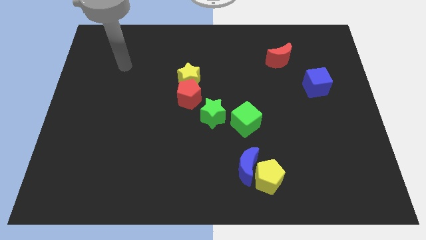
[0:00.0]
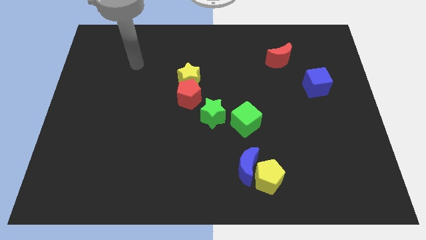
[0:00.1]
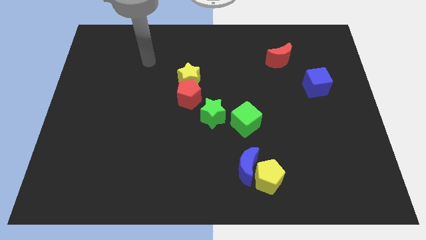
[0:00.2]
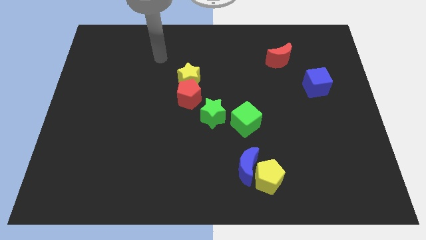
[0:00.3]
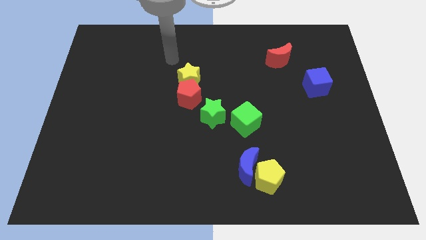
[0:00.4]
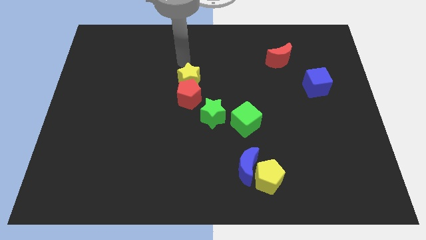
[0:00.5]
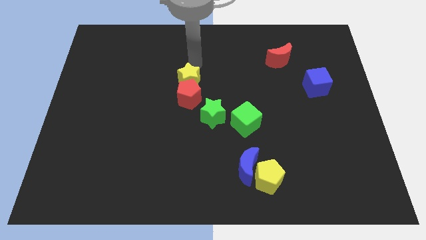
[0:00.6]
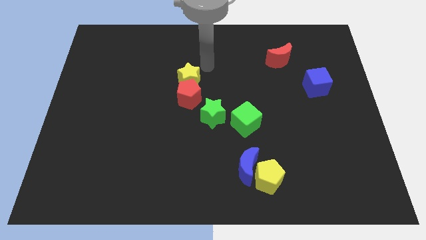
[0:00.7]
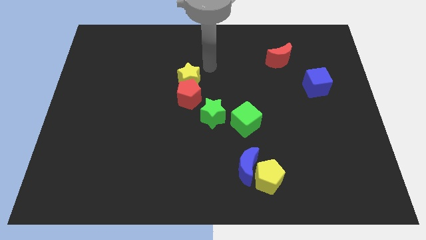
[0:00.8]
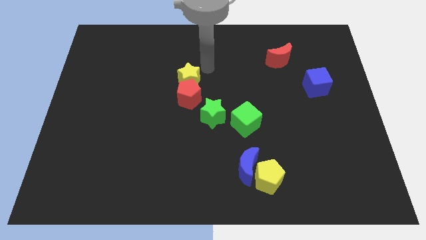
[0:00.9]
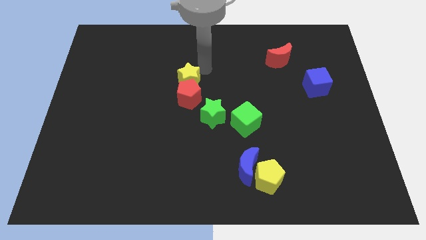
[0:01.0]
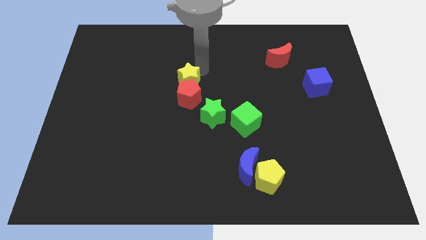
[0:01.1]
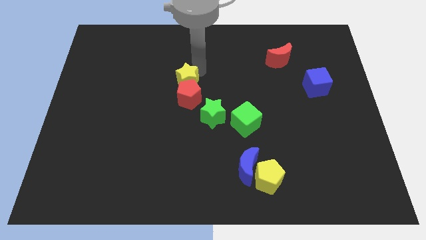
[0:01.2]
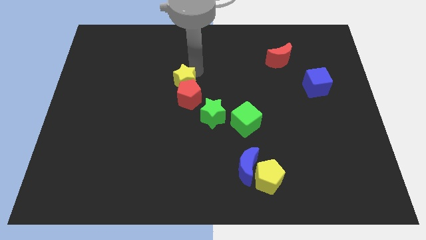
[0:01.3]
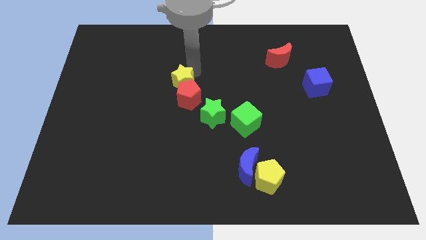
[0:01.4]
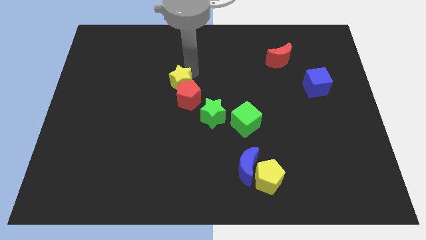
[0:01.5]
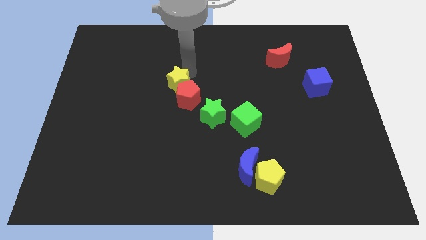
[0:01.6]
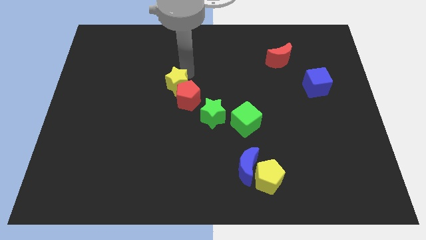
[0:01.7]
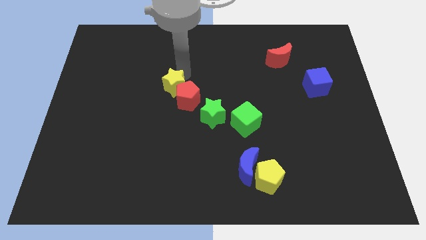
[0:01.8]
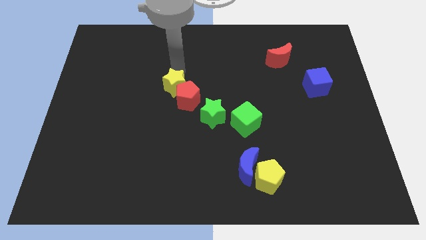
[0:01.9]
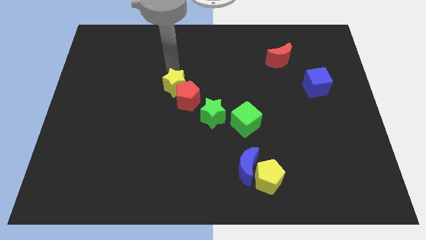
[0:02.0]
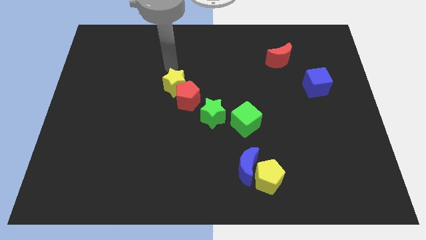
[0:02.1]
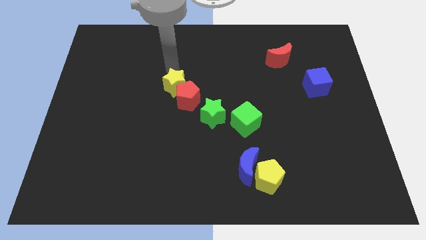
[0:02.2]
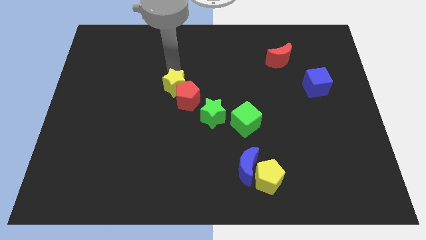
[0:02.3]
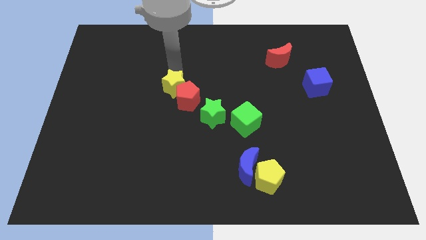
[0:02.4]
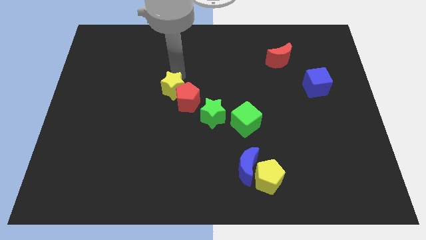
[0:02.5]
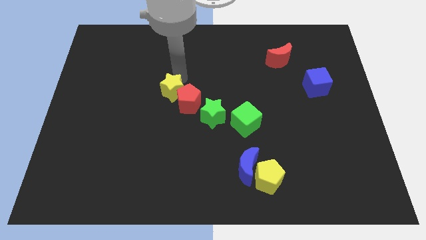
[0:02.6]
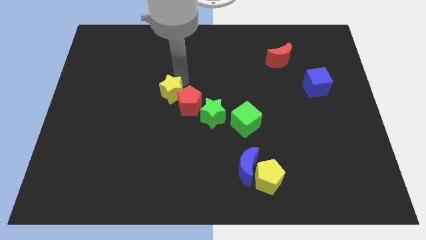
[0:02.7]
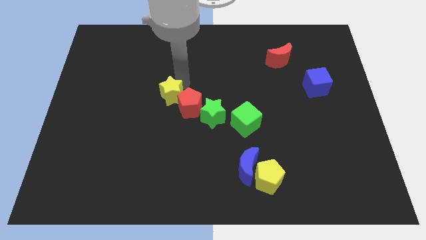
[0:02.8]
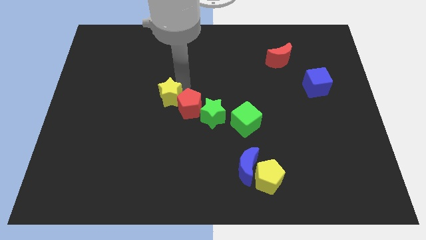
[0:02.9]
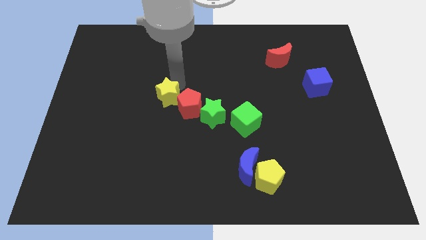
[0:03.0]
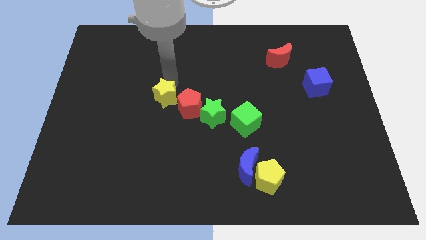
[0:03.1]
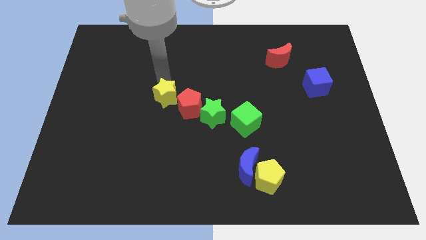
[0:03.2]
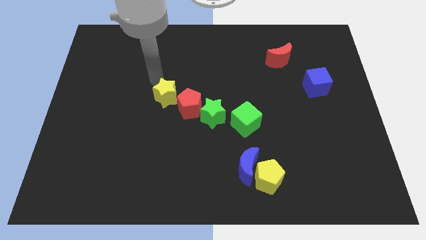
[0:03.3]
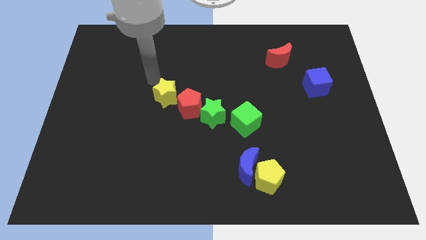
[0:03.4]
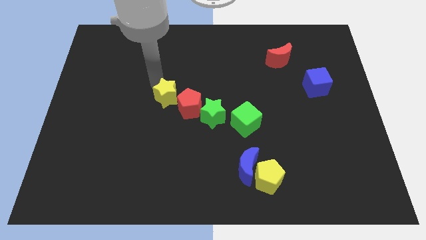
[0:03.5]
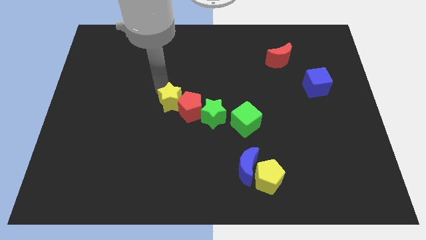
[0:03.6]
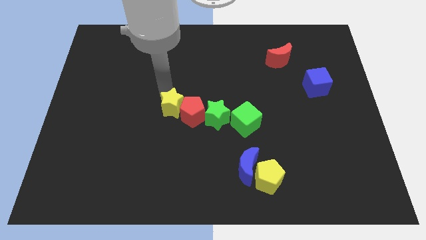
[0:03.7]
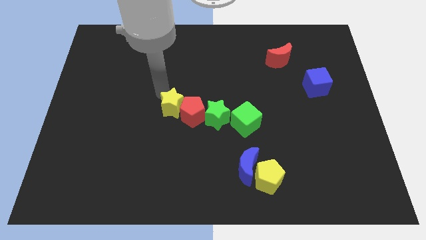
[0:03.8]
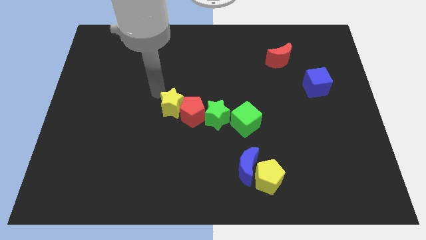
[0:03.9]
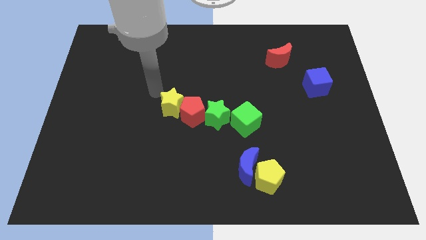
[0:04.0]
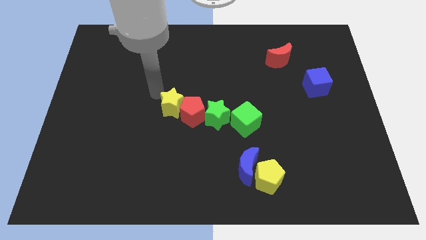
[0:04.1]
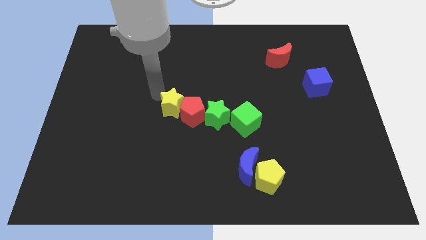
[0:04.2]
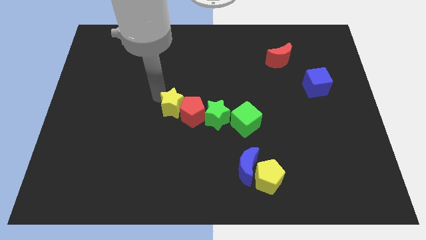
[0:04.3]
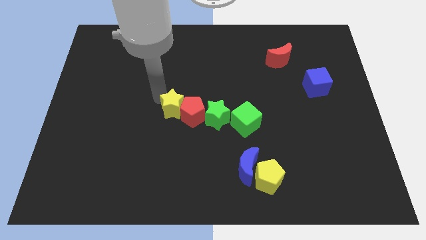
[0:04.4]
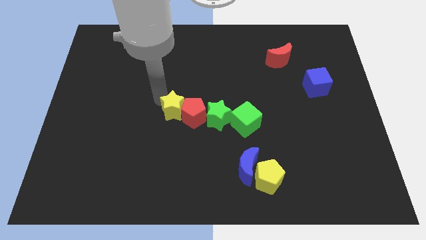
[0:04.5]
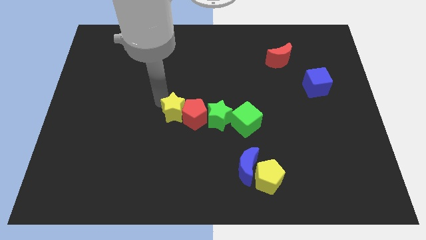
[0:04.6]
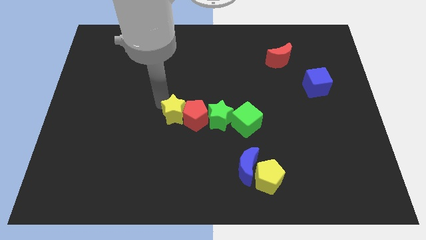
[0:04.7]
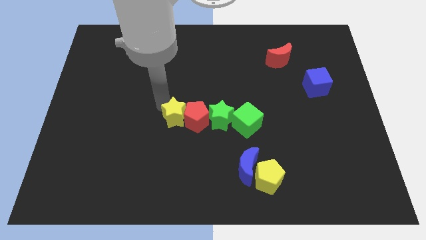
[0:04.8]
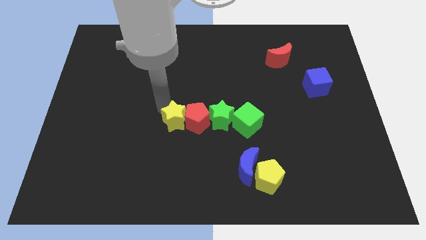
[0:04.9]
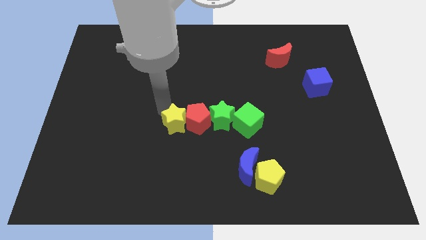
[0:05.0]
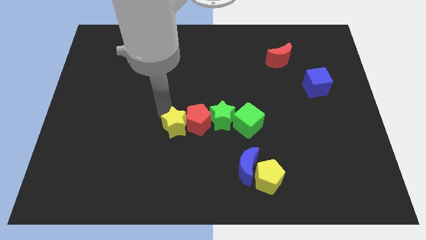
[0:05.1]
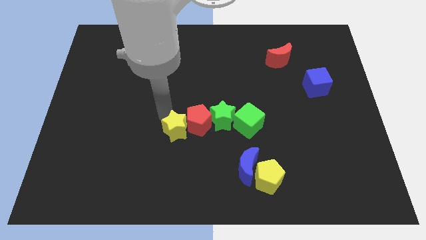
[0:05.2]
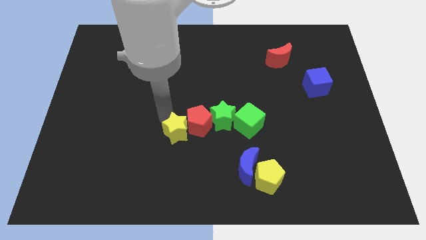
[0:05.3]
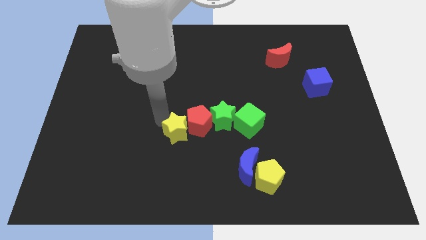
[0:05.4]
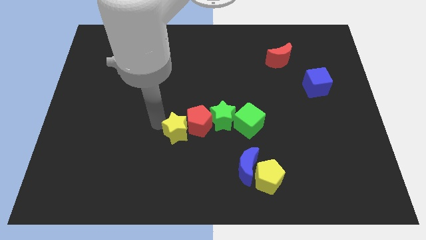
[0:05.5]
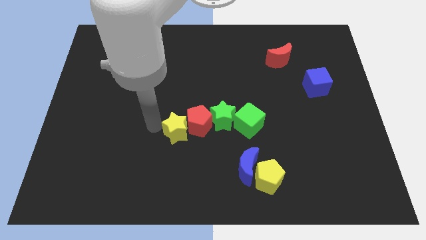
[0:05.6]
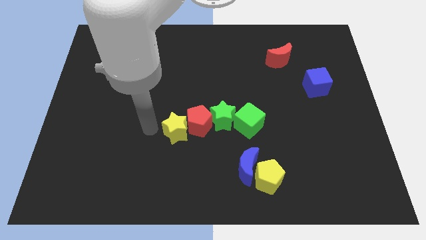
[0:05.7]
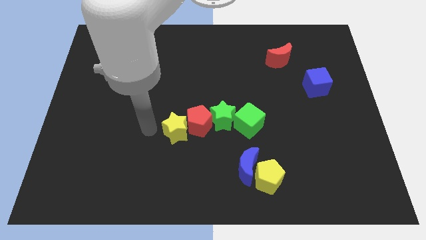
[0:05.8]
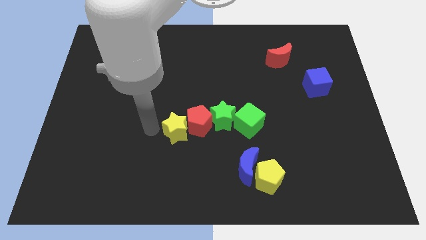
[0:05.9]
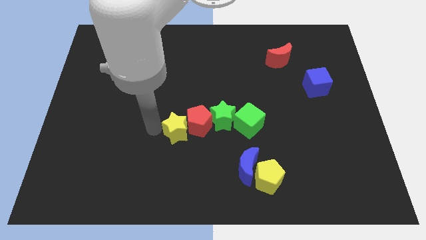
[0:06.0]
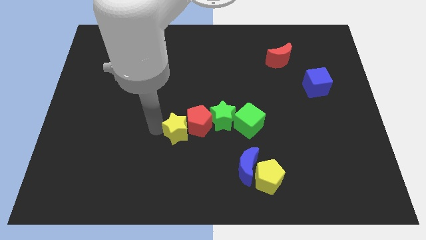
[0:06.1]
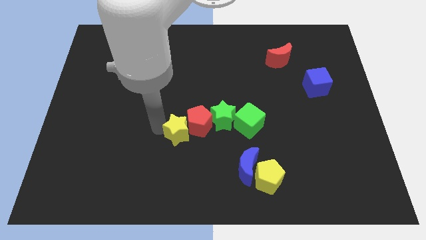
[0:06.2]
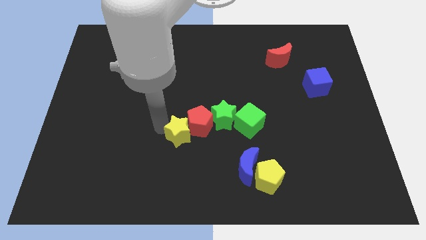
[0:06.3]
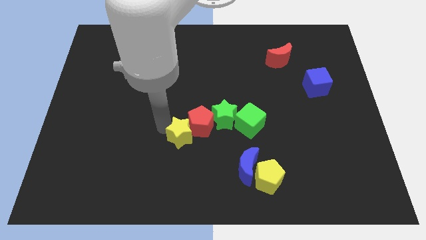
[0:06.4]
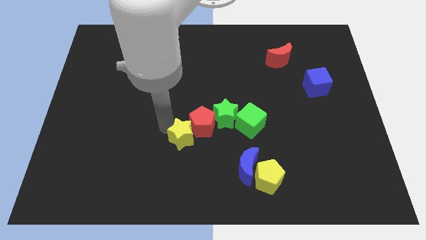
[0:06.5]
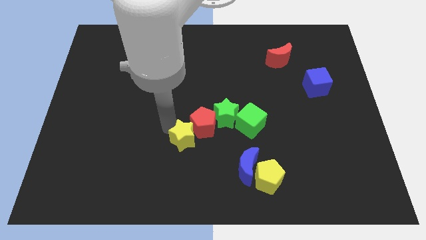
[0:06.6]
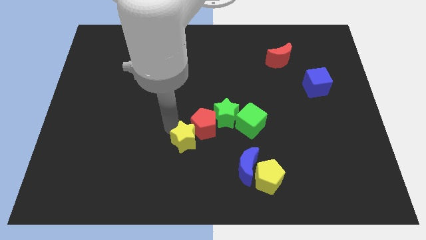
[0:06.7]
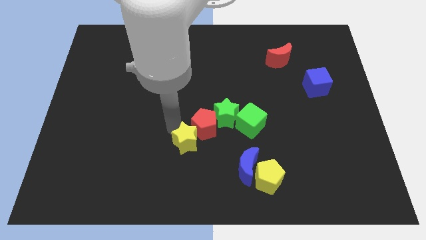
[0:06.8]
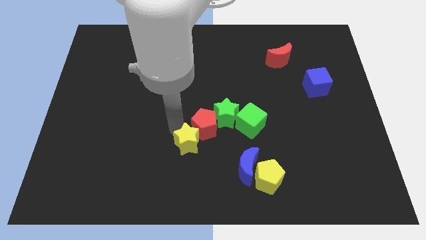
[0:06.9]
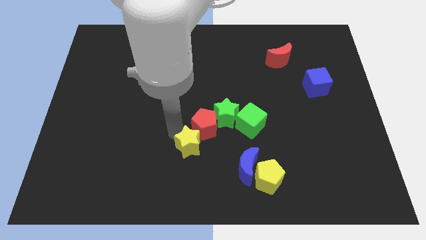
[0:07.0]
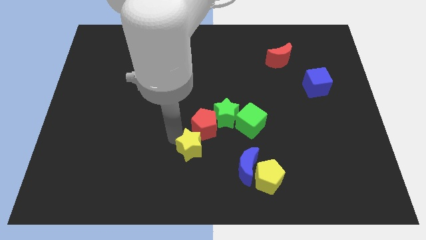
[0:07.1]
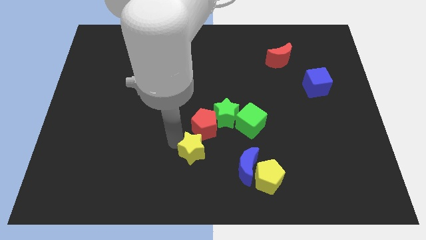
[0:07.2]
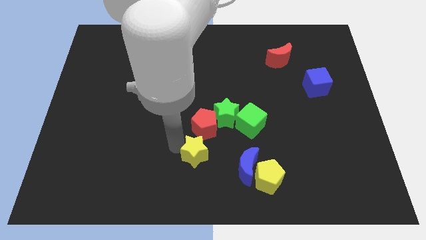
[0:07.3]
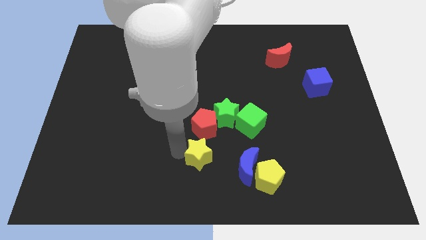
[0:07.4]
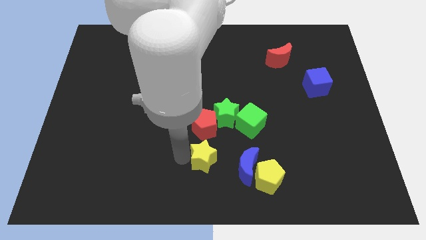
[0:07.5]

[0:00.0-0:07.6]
move the yellow star to the bottom of the green star

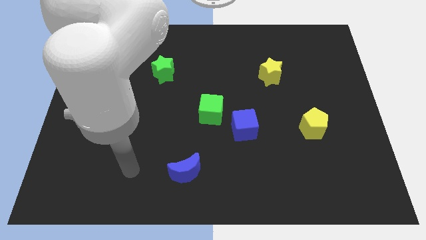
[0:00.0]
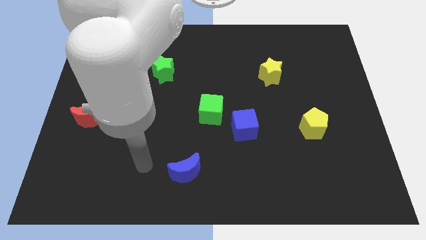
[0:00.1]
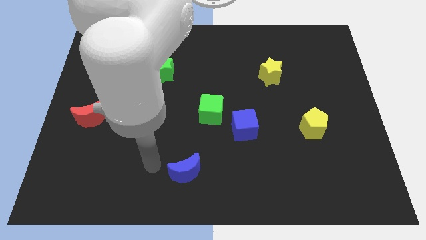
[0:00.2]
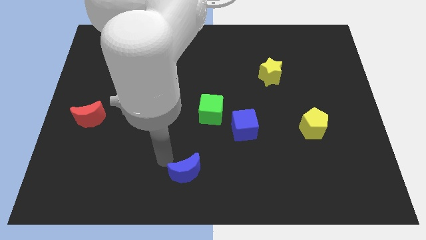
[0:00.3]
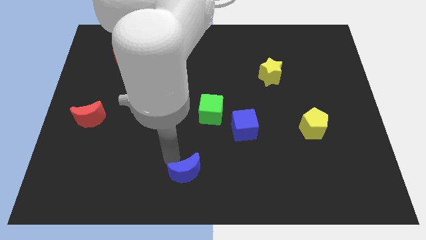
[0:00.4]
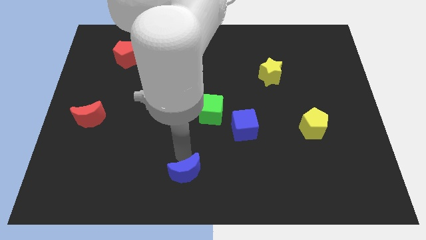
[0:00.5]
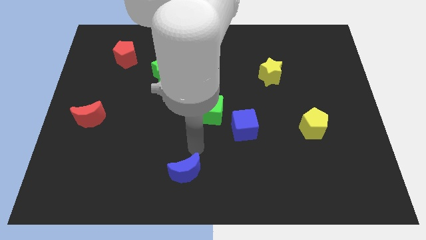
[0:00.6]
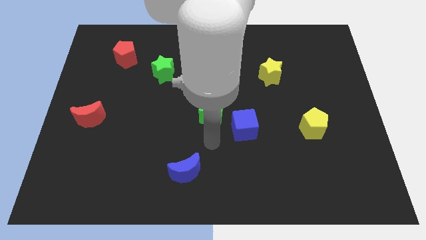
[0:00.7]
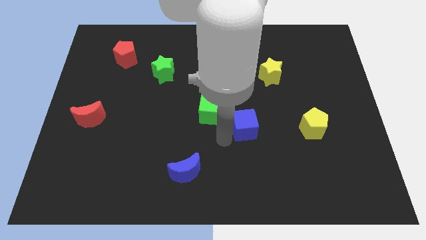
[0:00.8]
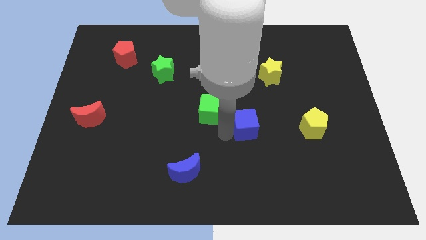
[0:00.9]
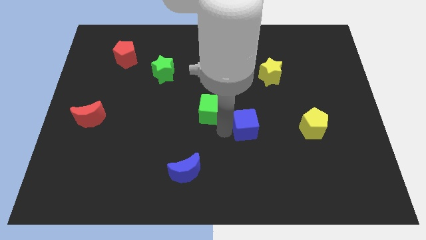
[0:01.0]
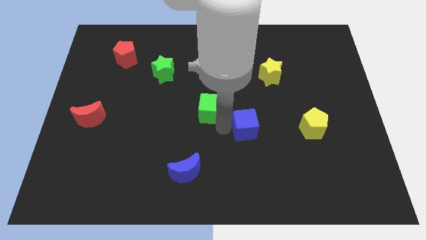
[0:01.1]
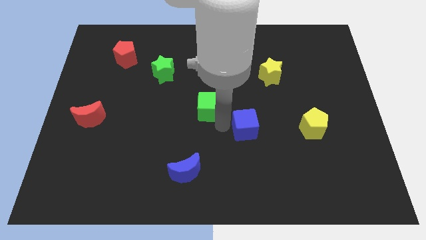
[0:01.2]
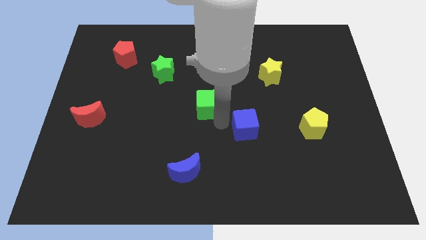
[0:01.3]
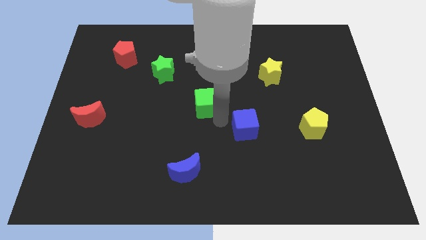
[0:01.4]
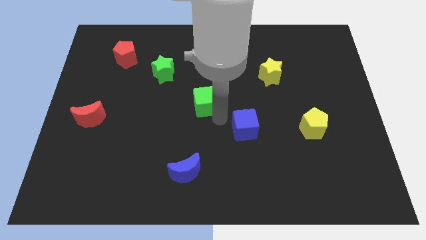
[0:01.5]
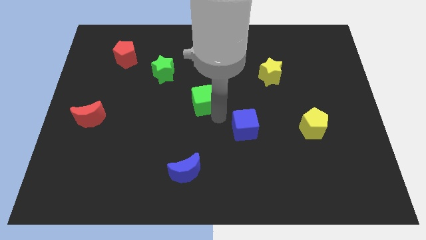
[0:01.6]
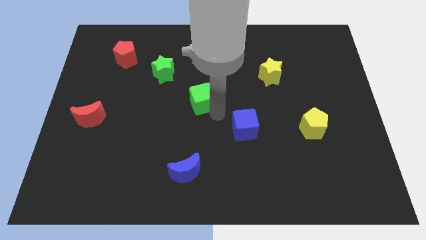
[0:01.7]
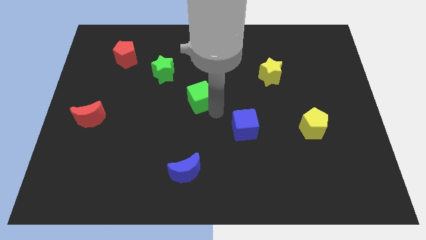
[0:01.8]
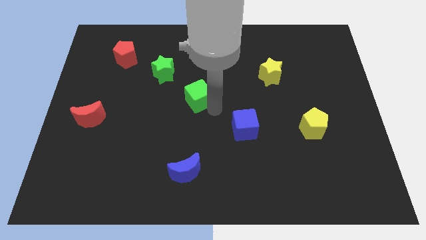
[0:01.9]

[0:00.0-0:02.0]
push the green cube diagonally down and to the right of the green star
